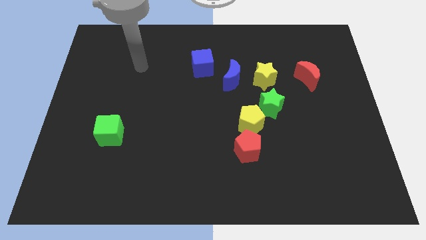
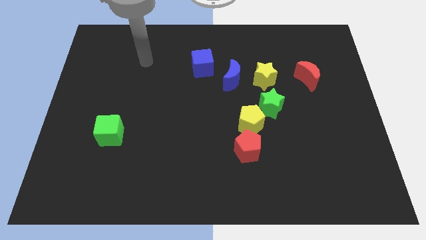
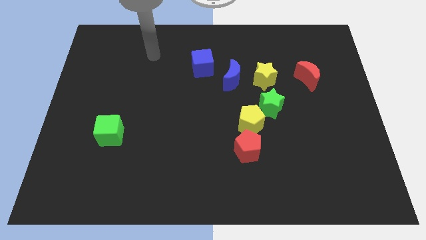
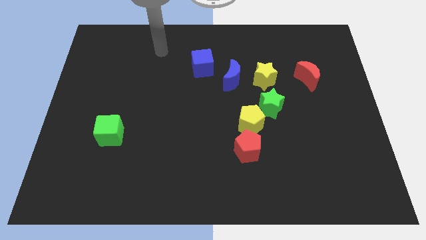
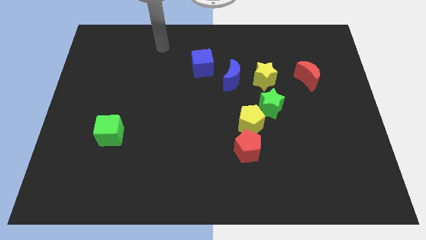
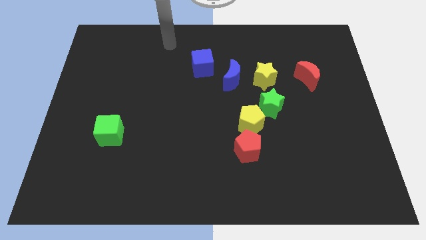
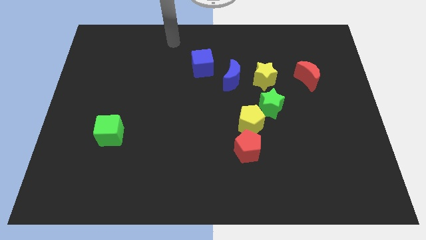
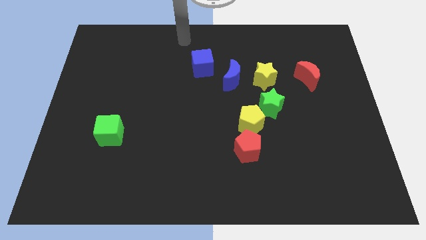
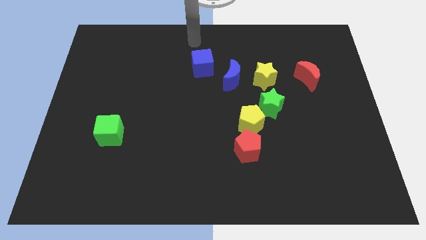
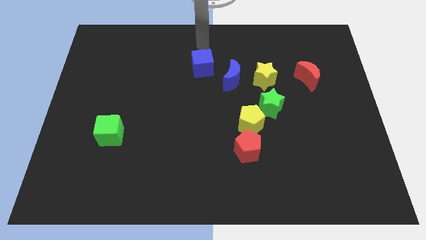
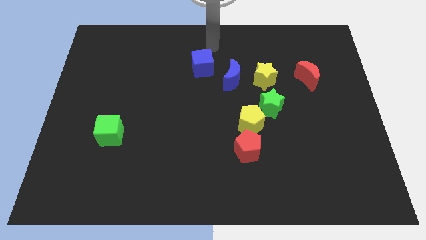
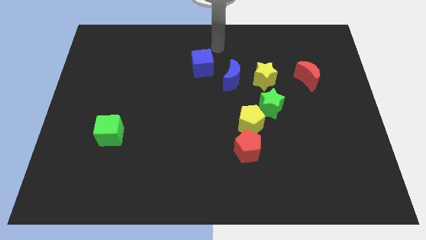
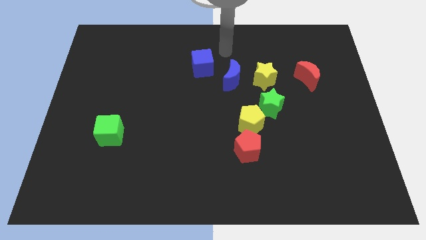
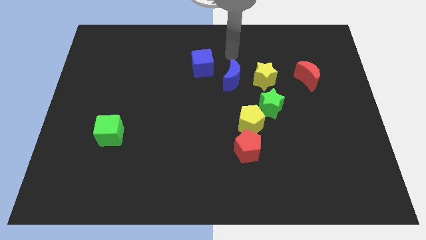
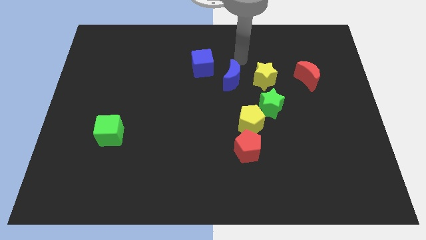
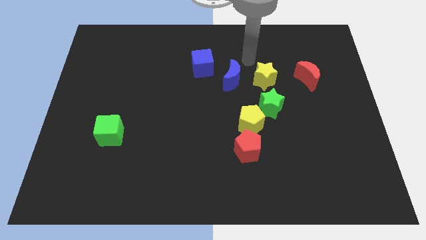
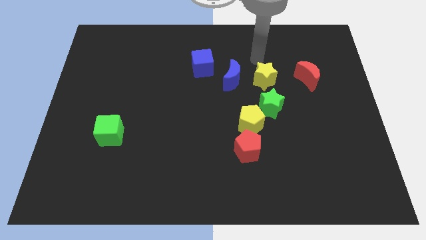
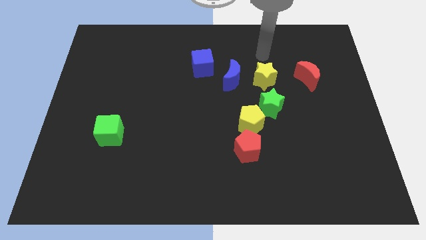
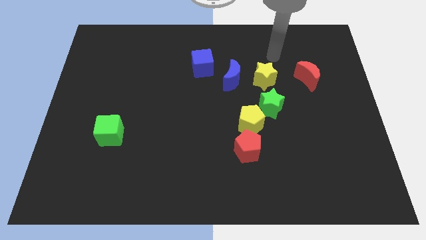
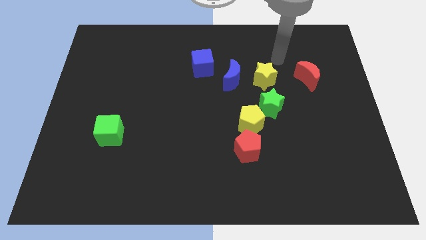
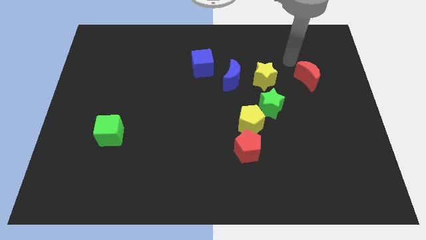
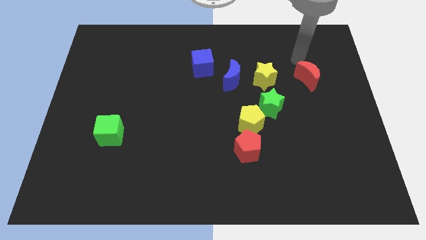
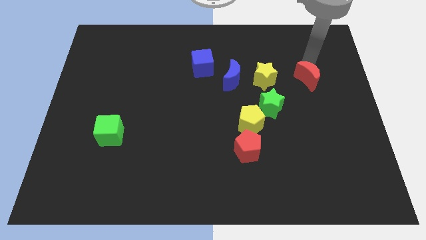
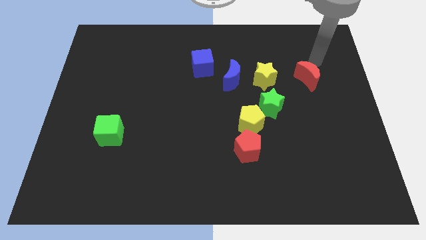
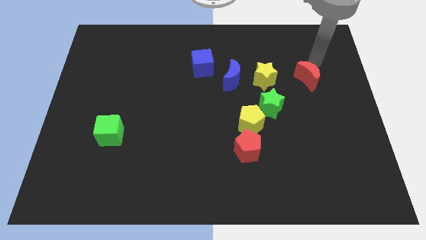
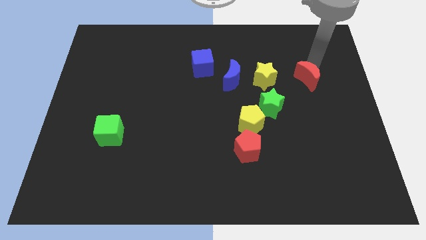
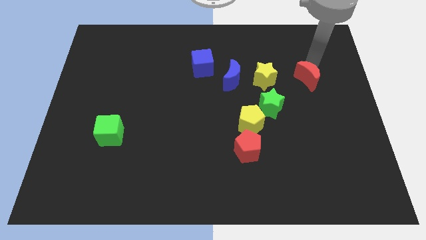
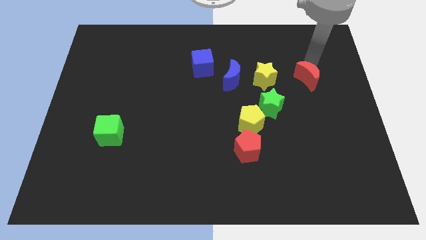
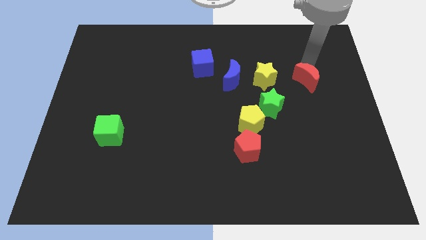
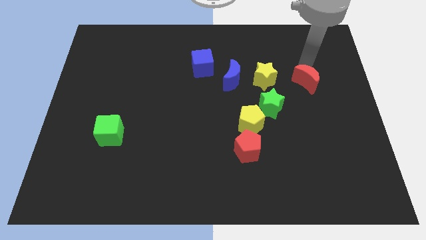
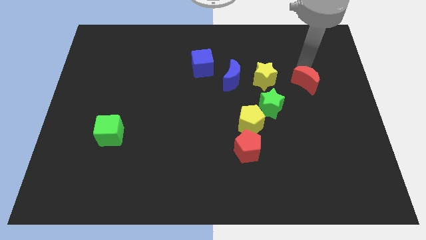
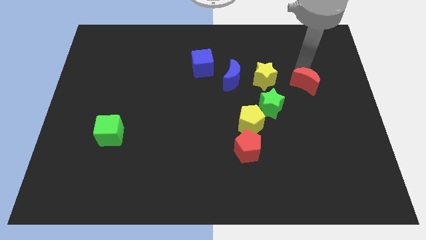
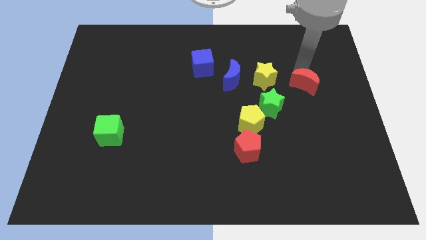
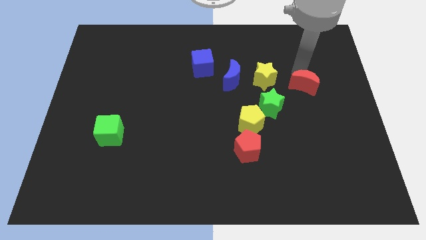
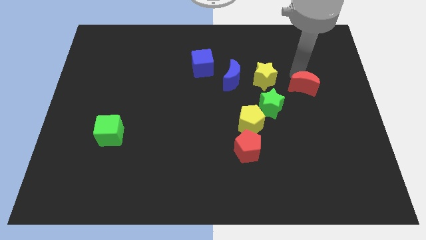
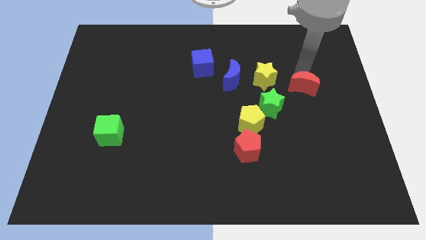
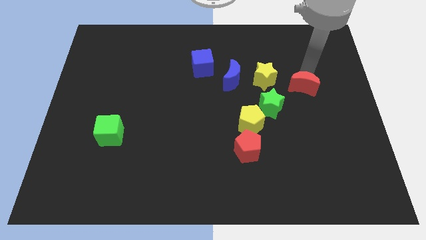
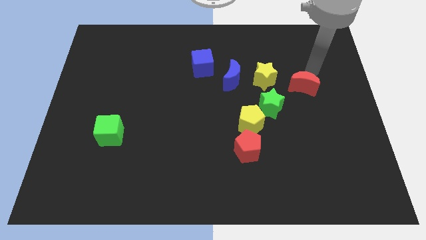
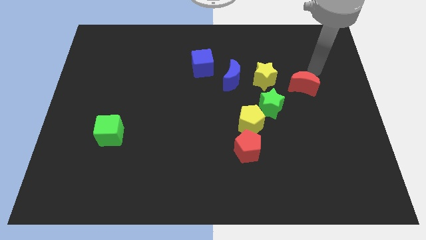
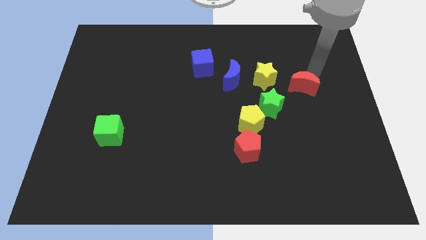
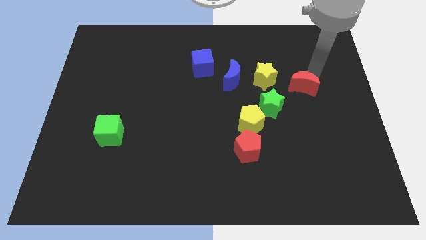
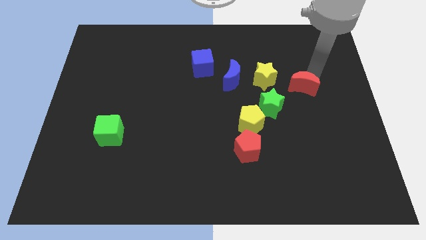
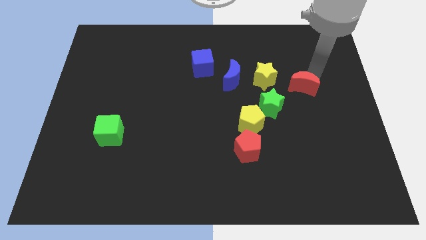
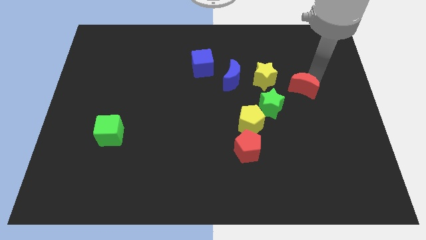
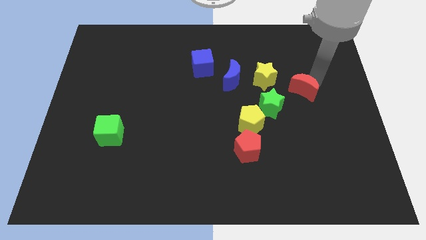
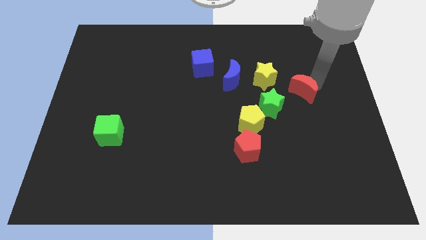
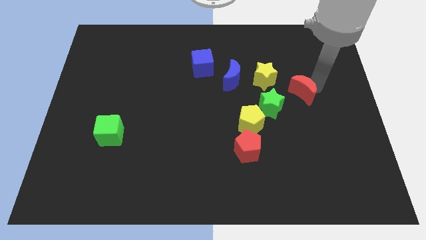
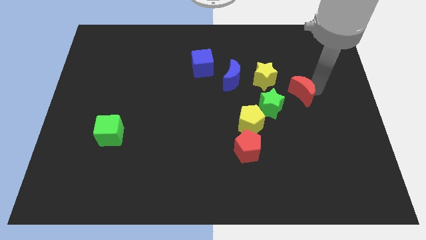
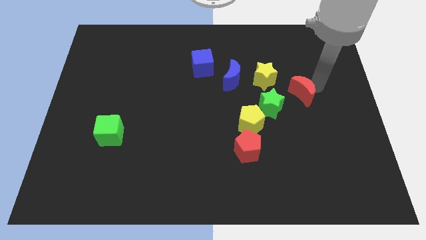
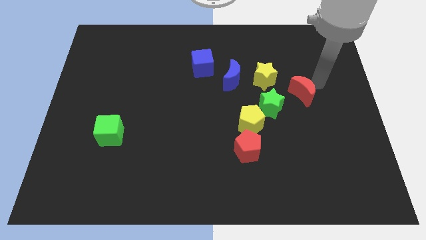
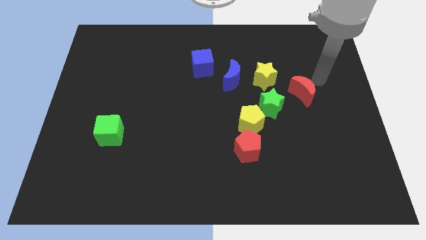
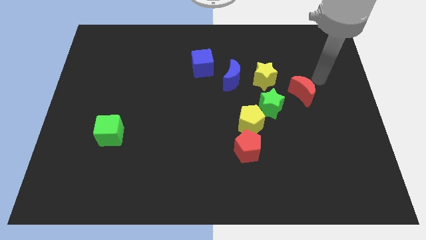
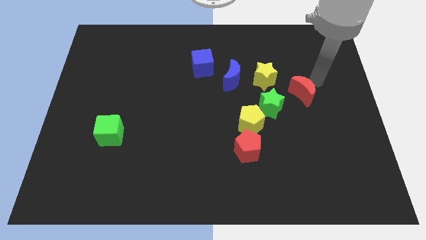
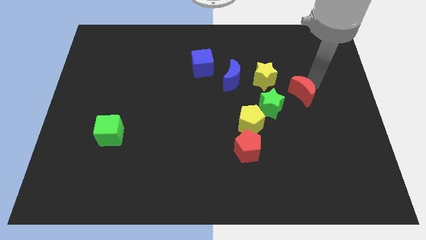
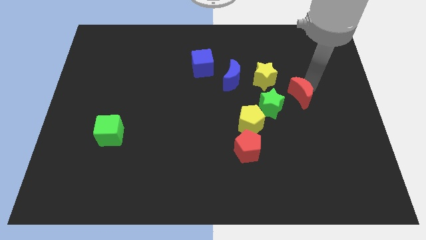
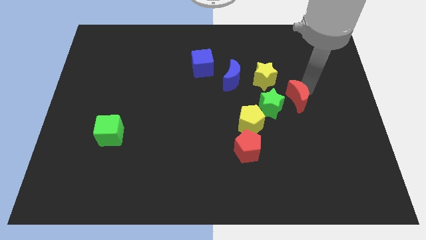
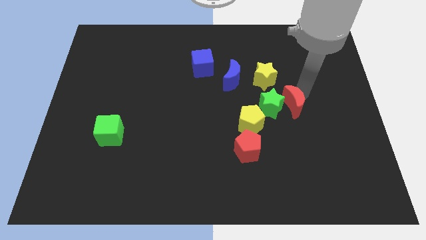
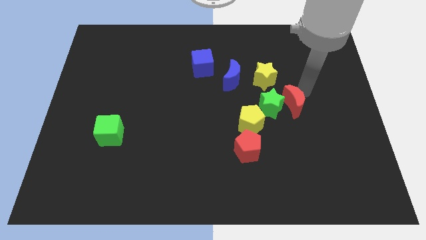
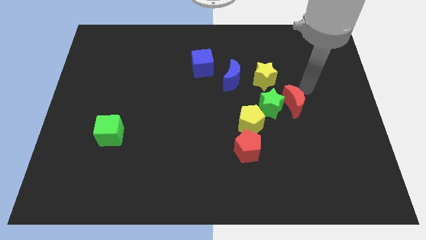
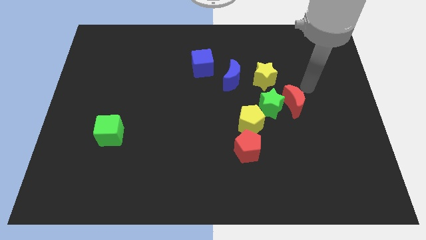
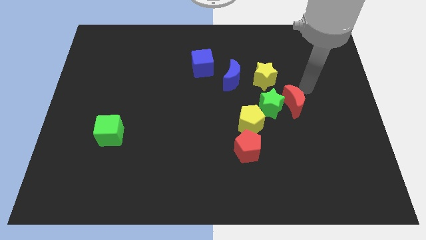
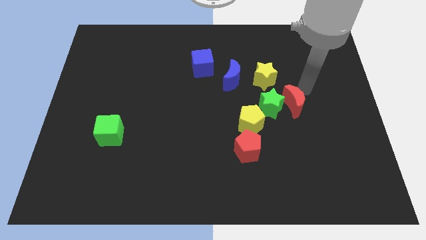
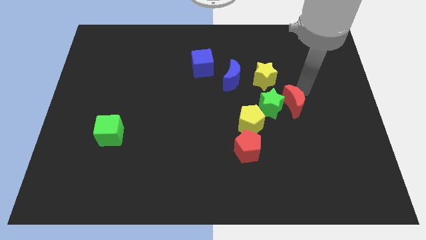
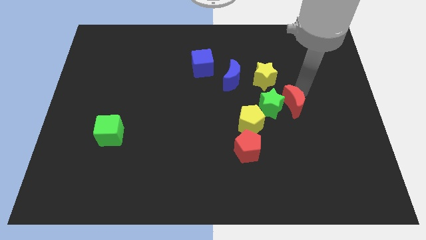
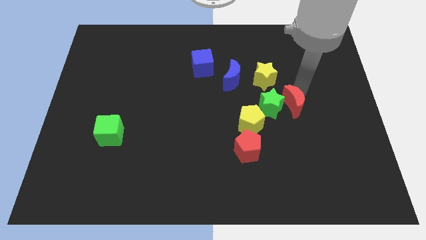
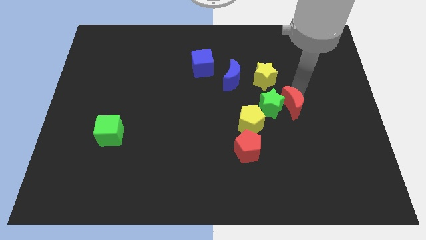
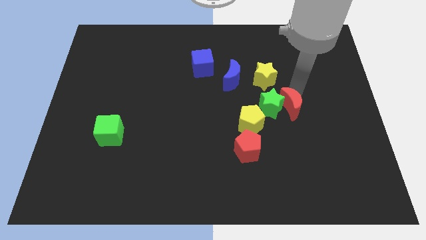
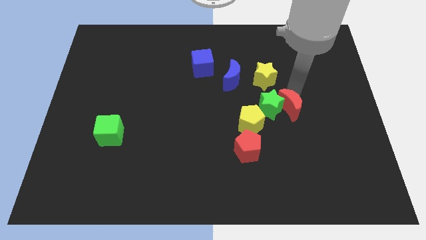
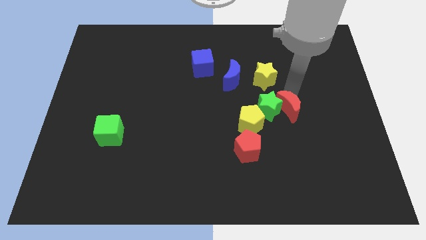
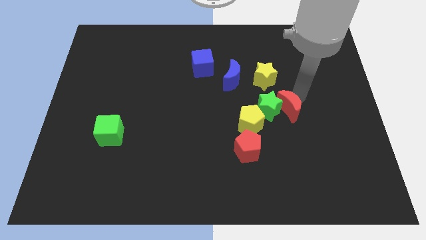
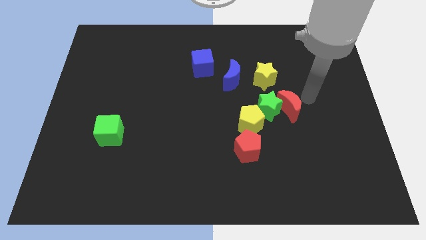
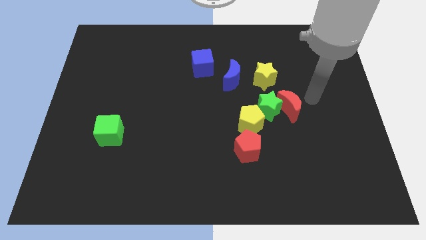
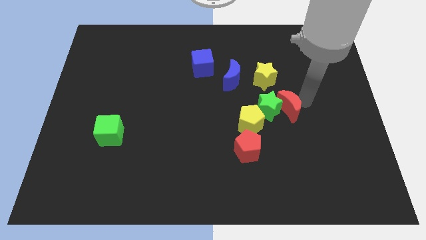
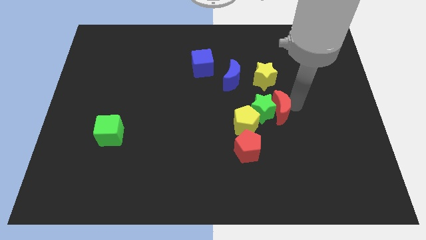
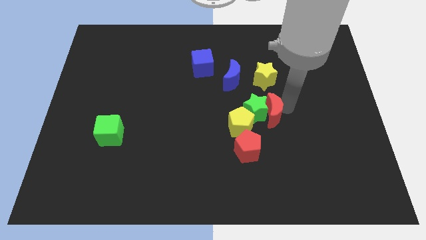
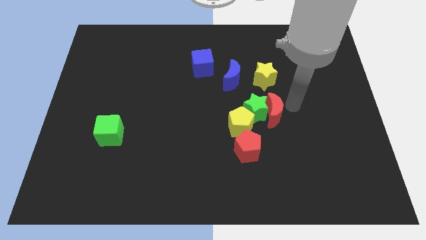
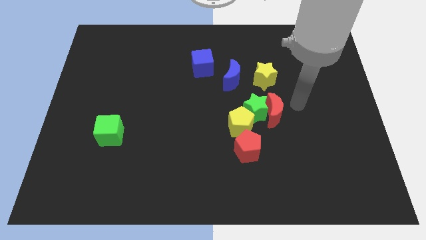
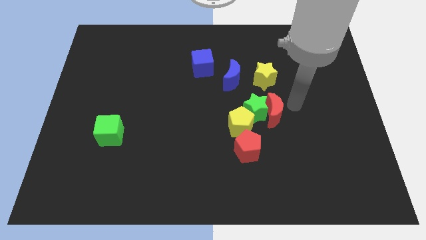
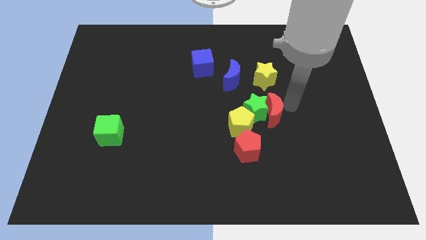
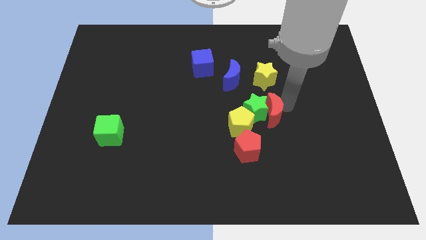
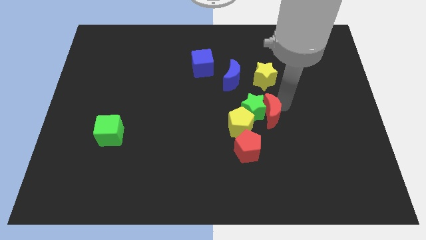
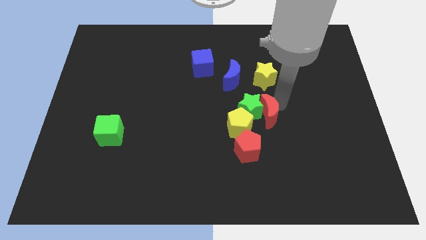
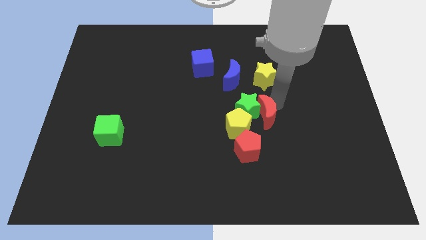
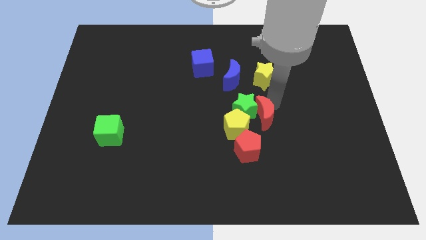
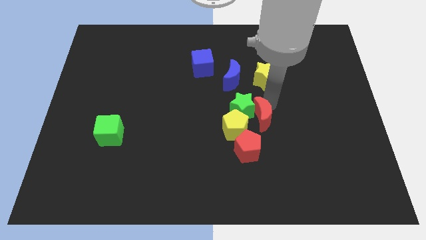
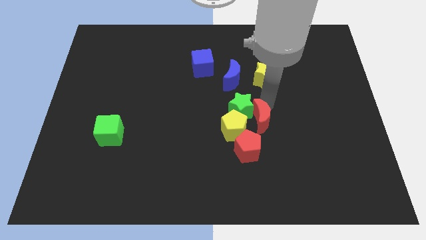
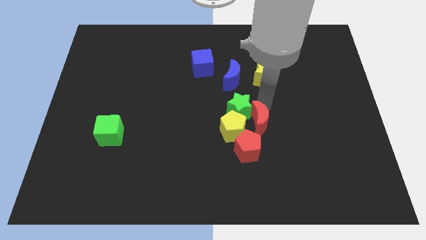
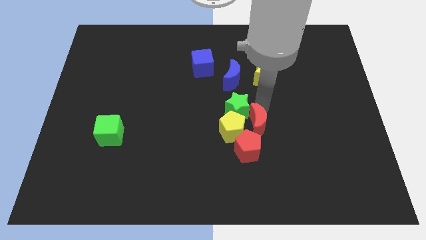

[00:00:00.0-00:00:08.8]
slide the red moon next to the yellow pentagon
